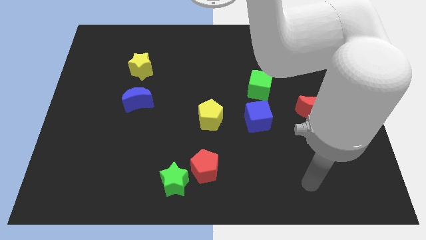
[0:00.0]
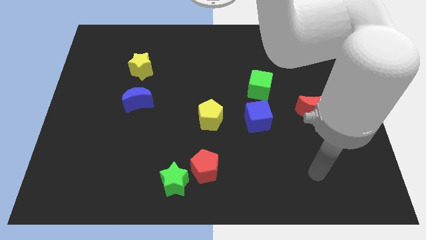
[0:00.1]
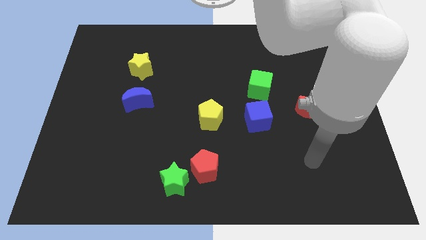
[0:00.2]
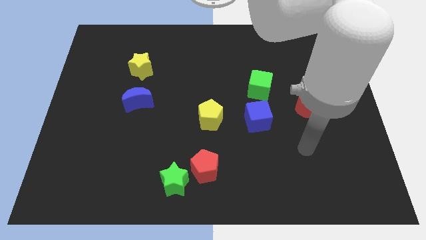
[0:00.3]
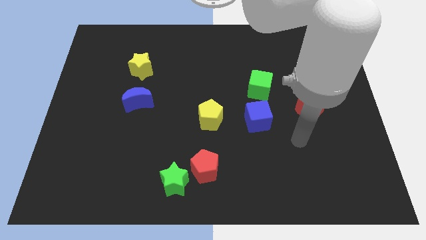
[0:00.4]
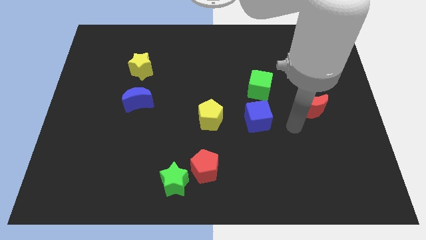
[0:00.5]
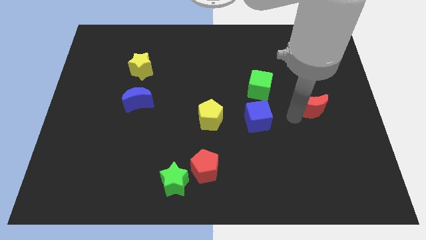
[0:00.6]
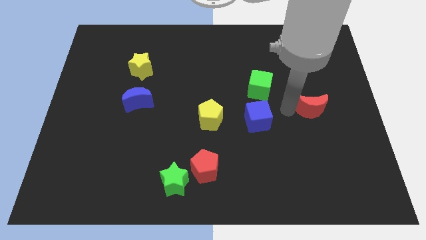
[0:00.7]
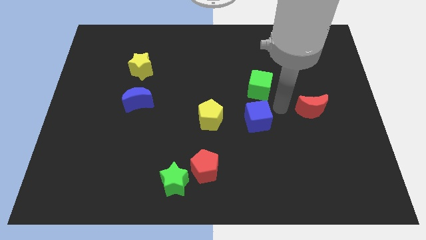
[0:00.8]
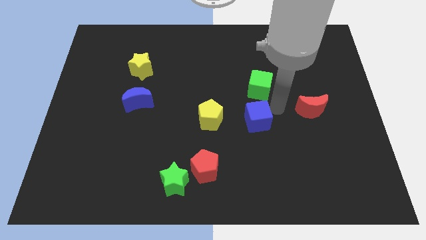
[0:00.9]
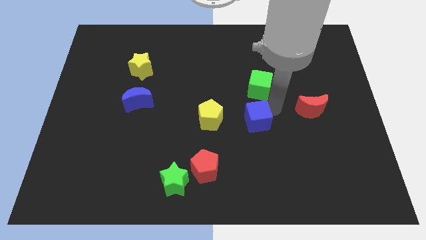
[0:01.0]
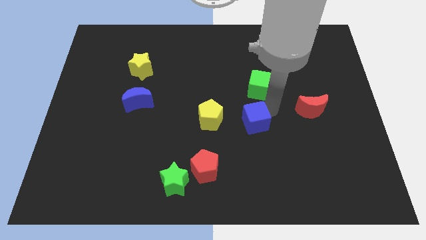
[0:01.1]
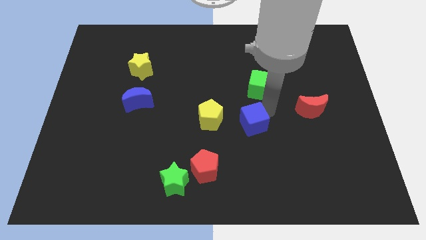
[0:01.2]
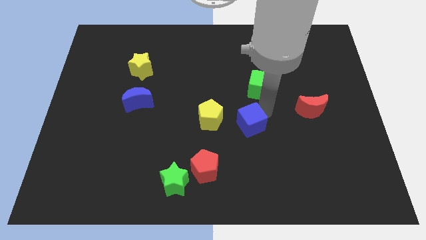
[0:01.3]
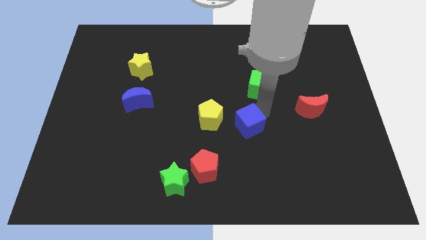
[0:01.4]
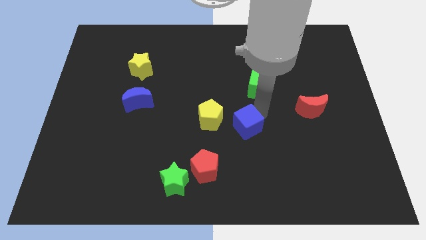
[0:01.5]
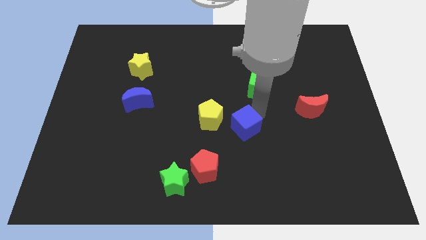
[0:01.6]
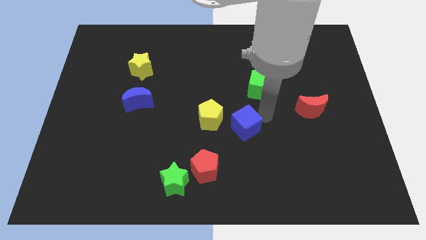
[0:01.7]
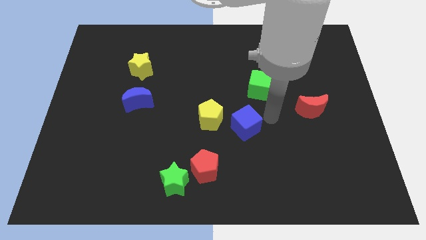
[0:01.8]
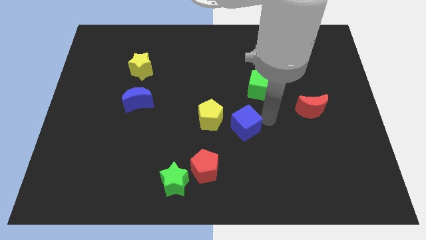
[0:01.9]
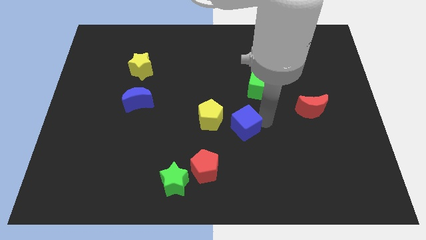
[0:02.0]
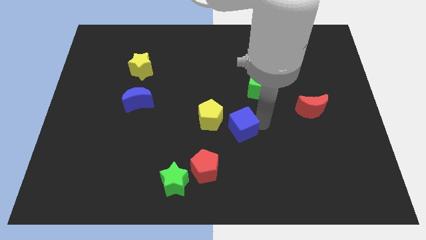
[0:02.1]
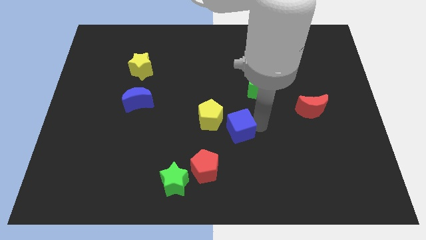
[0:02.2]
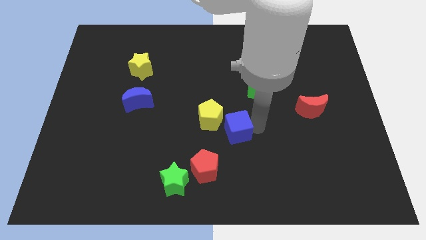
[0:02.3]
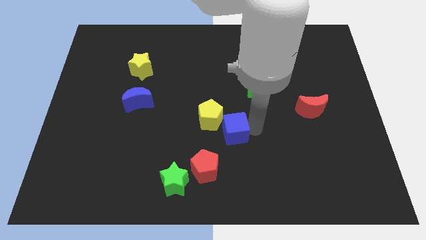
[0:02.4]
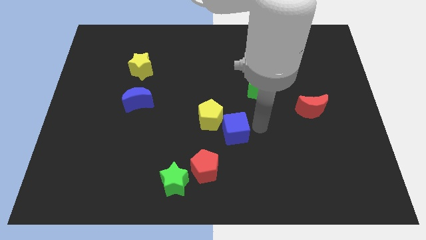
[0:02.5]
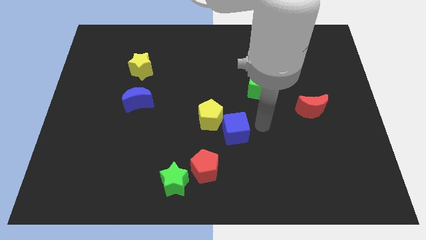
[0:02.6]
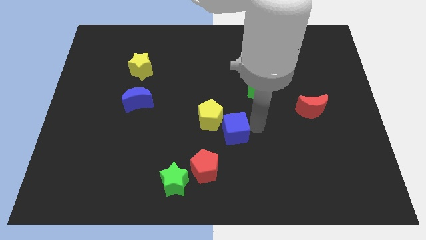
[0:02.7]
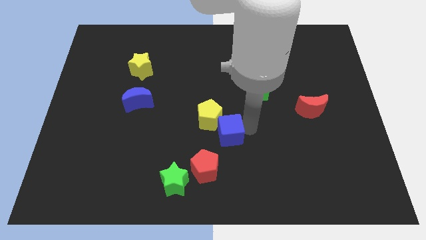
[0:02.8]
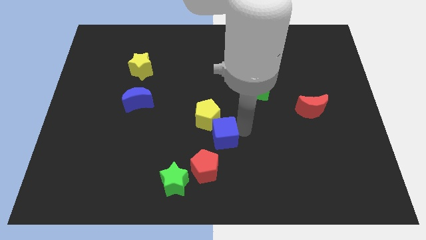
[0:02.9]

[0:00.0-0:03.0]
slide the blue cube somewhat to the left

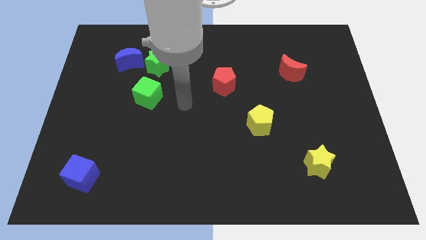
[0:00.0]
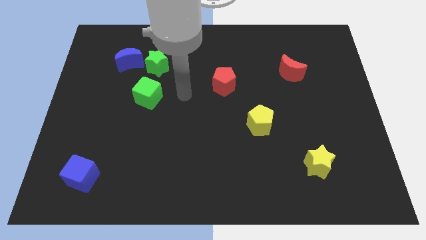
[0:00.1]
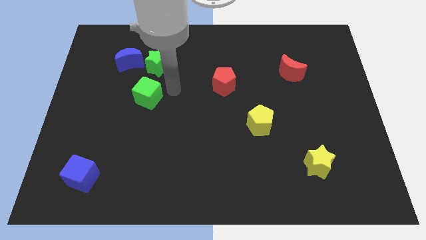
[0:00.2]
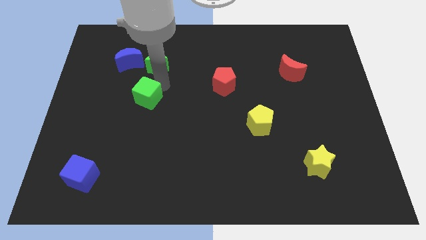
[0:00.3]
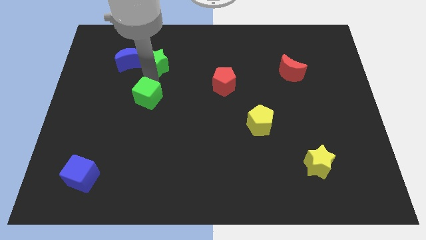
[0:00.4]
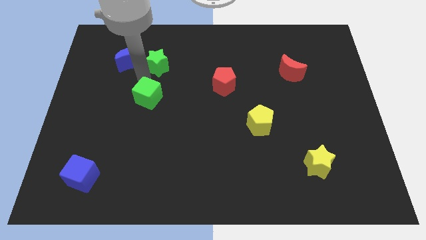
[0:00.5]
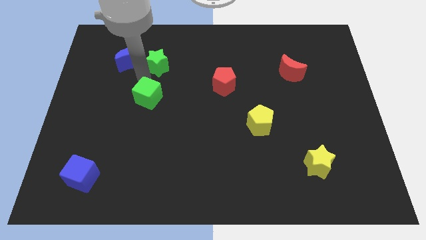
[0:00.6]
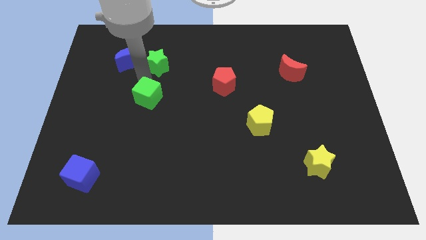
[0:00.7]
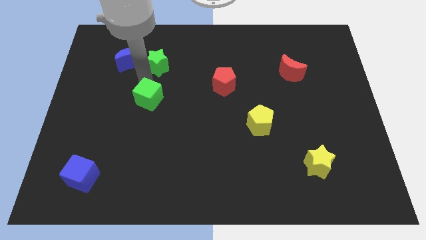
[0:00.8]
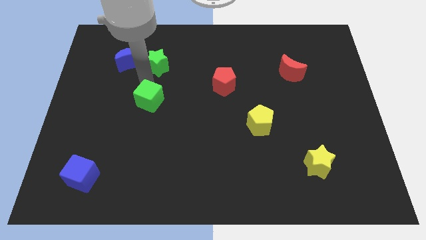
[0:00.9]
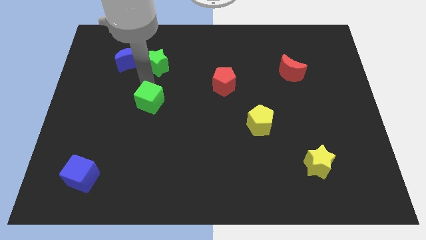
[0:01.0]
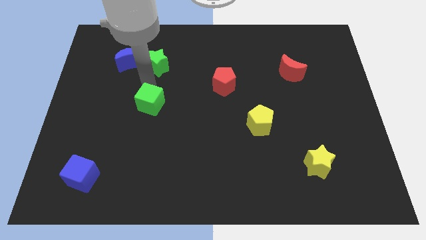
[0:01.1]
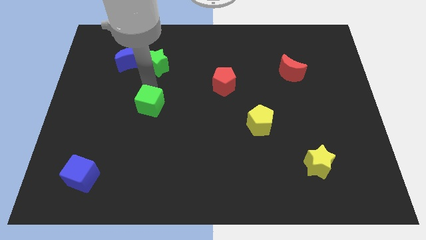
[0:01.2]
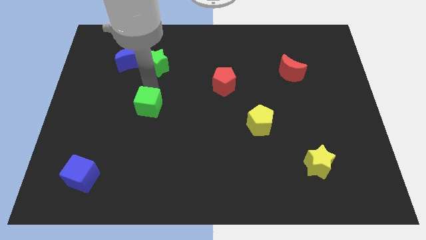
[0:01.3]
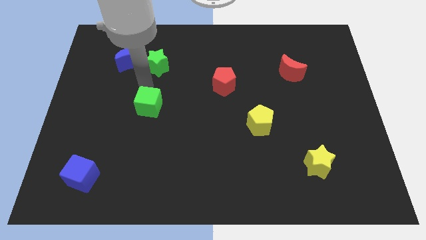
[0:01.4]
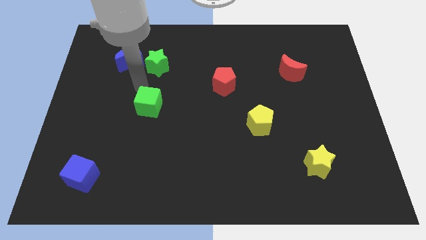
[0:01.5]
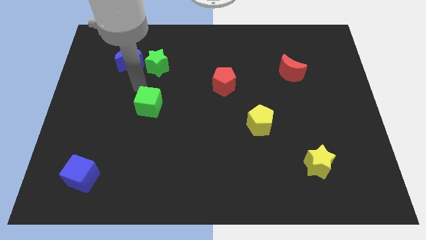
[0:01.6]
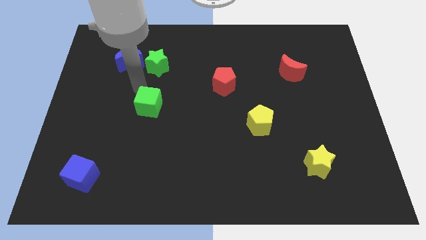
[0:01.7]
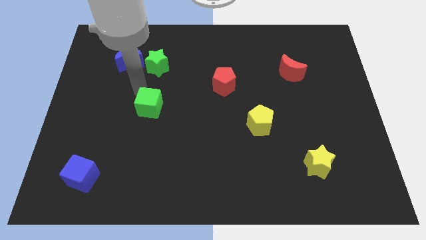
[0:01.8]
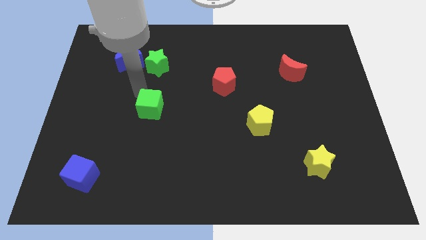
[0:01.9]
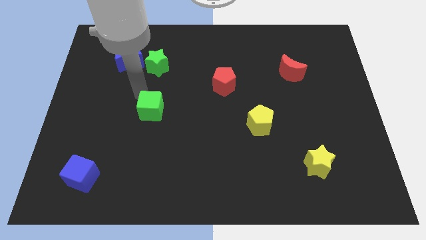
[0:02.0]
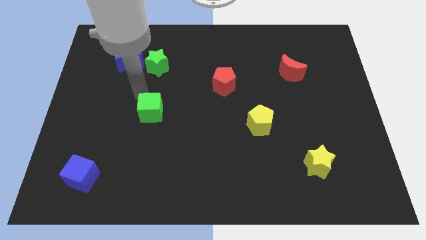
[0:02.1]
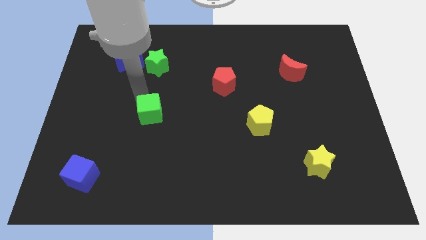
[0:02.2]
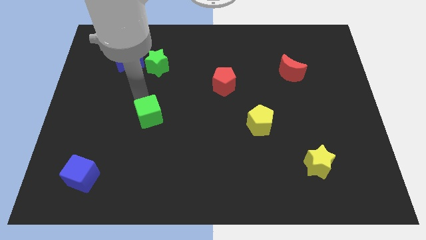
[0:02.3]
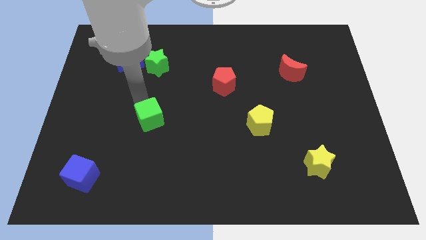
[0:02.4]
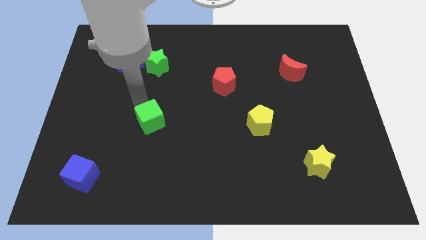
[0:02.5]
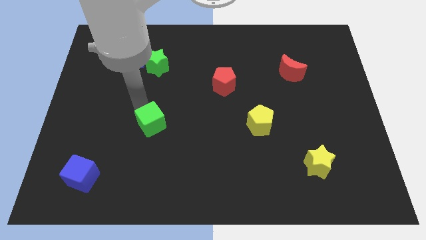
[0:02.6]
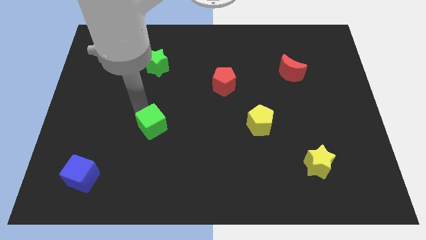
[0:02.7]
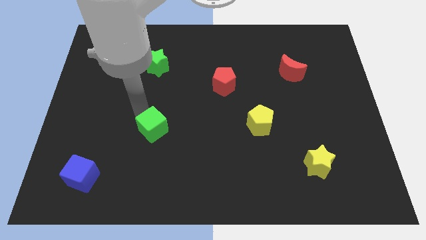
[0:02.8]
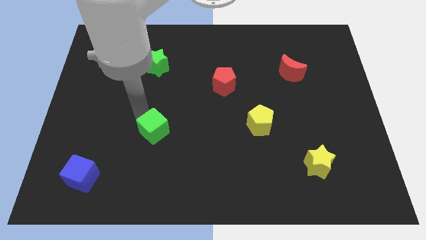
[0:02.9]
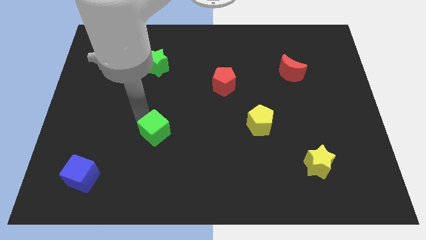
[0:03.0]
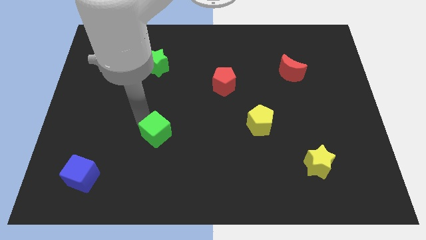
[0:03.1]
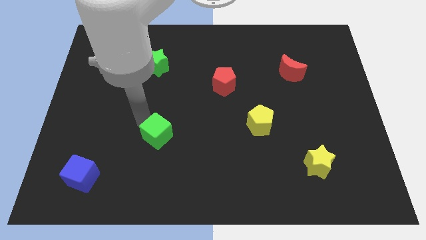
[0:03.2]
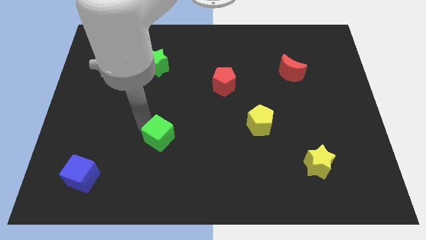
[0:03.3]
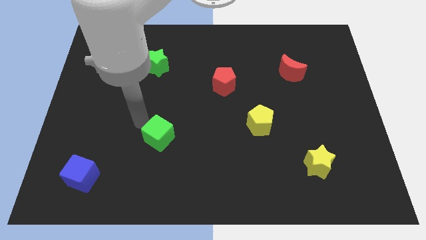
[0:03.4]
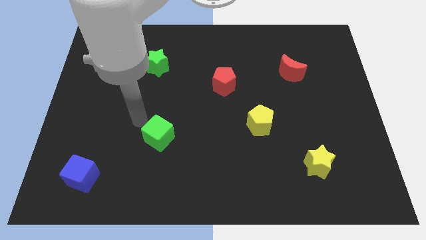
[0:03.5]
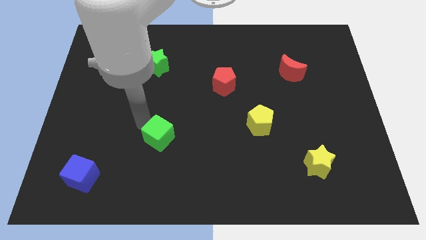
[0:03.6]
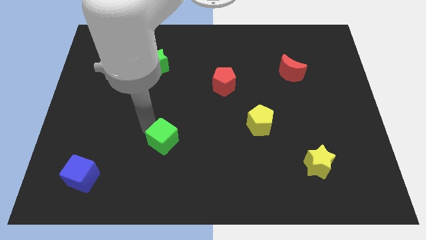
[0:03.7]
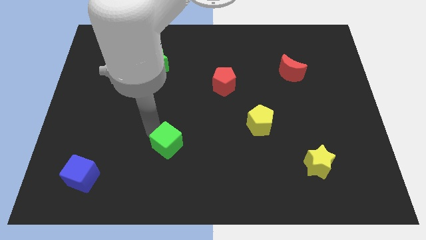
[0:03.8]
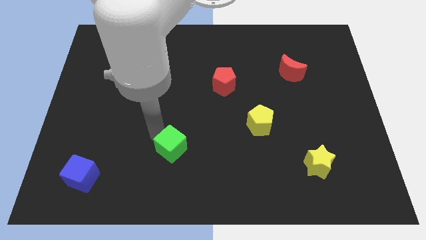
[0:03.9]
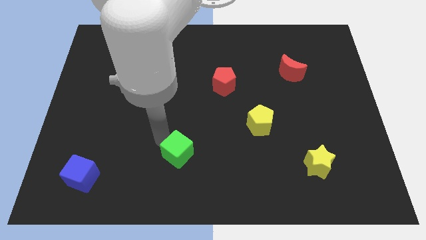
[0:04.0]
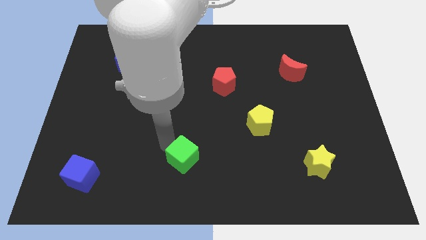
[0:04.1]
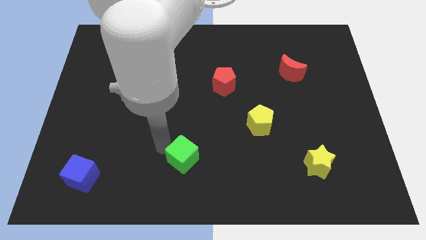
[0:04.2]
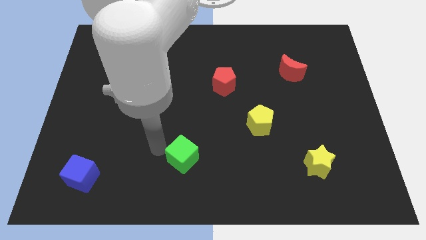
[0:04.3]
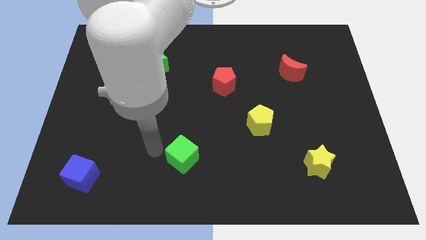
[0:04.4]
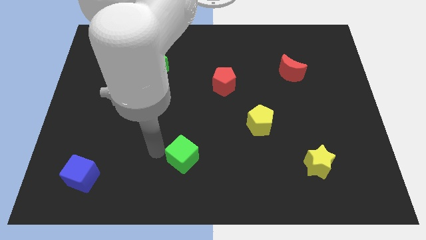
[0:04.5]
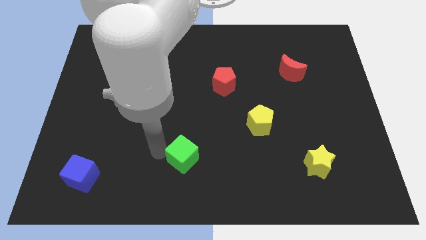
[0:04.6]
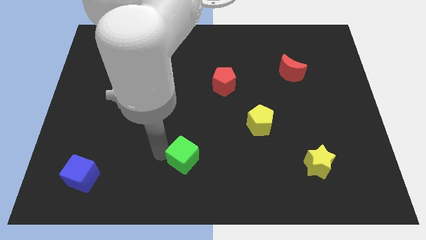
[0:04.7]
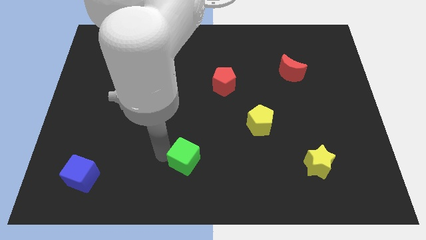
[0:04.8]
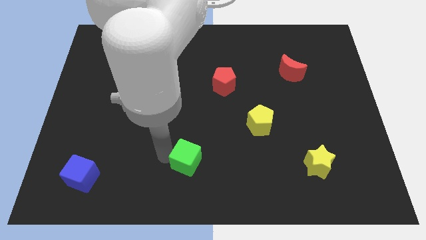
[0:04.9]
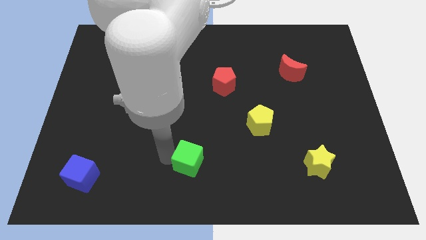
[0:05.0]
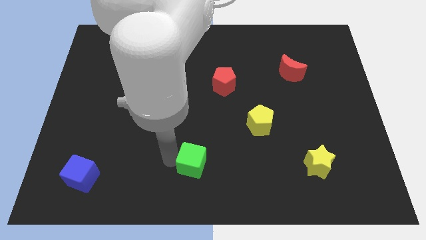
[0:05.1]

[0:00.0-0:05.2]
slide the green cube down and right

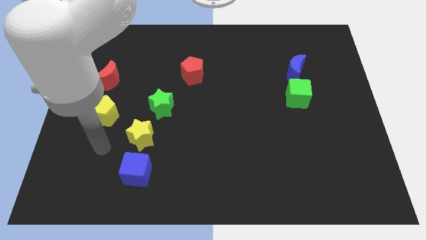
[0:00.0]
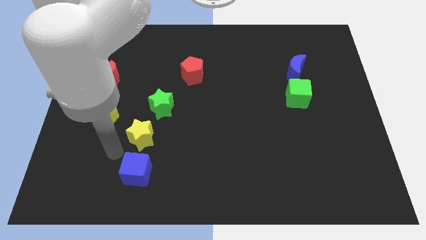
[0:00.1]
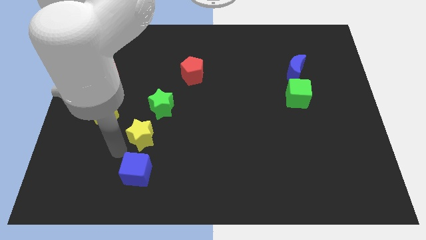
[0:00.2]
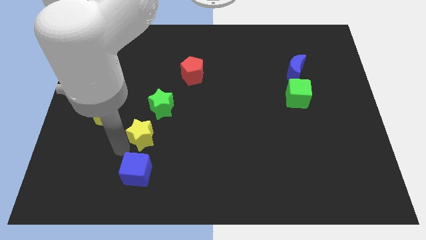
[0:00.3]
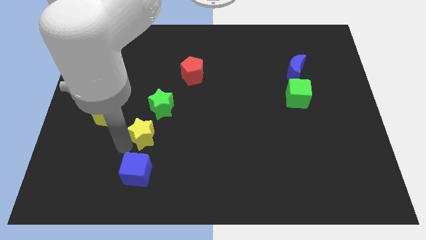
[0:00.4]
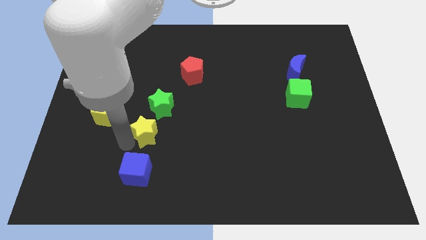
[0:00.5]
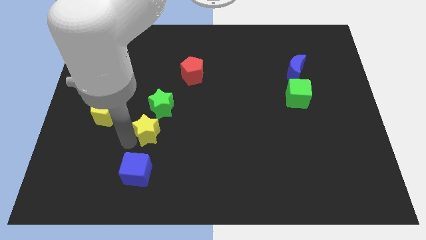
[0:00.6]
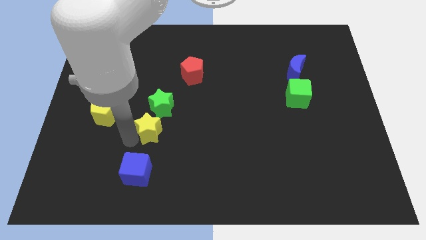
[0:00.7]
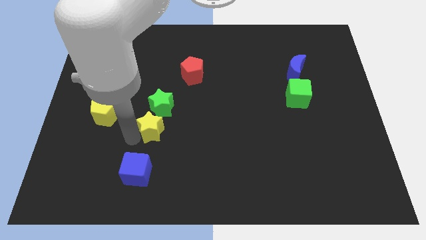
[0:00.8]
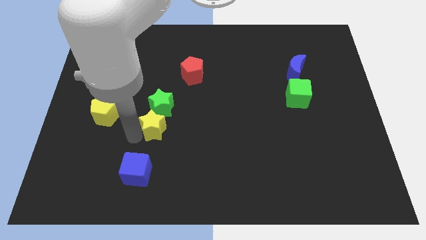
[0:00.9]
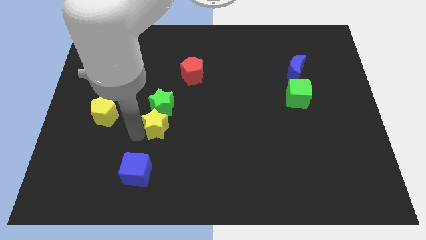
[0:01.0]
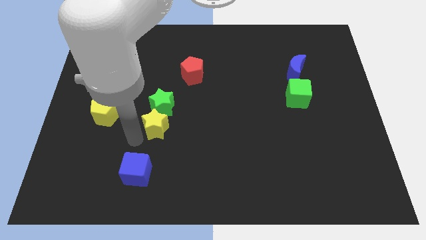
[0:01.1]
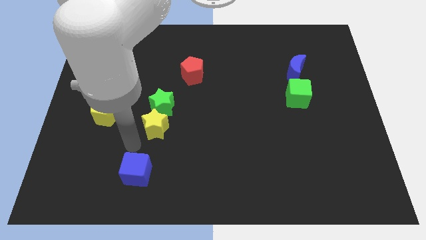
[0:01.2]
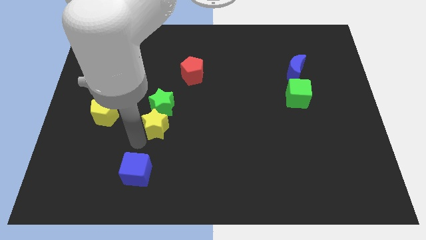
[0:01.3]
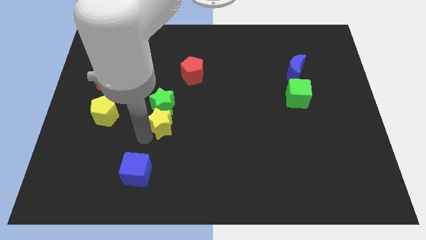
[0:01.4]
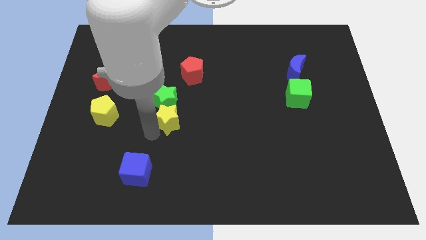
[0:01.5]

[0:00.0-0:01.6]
move the yellow star up and to the right a little
